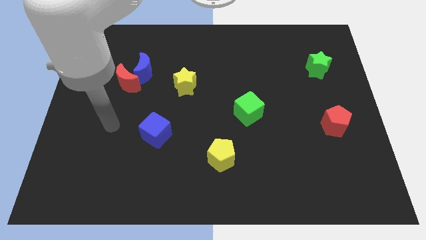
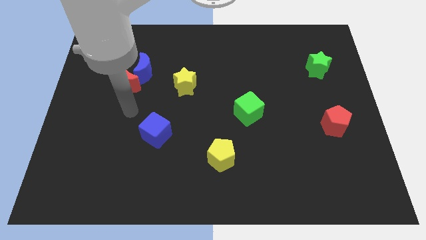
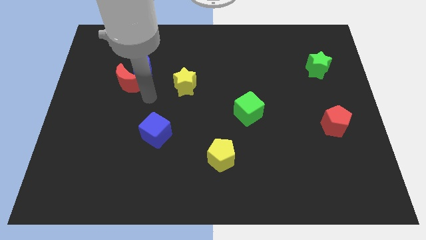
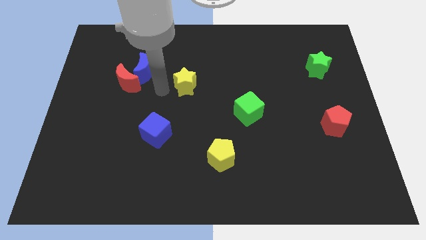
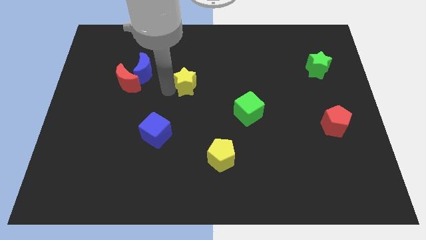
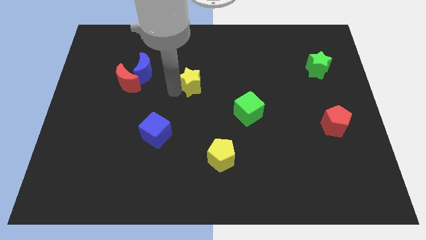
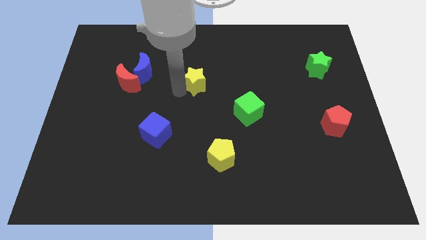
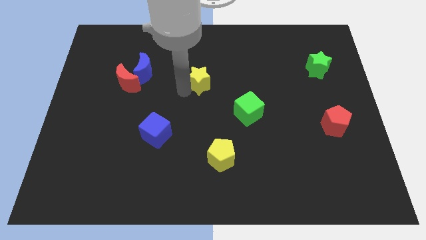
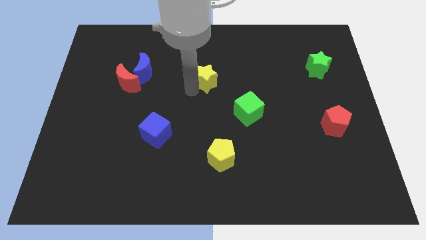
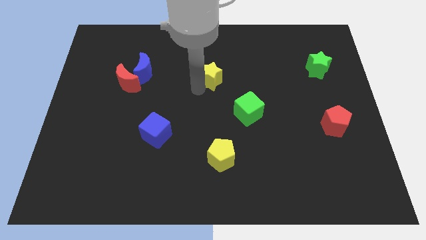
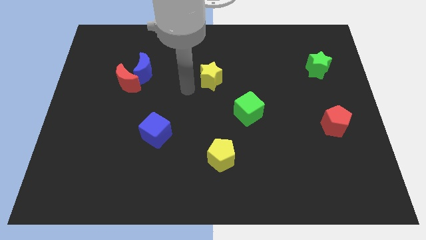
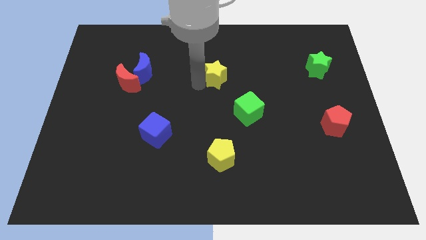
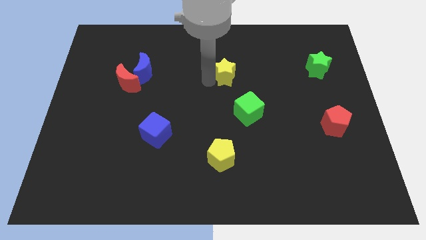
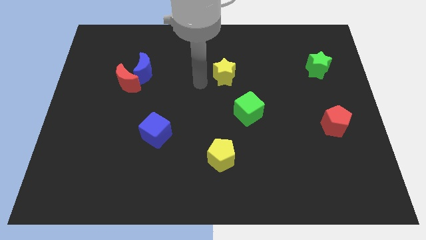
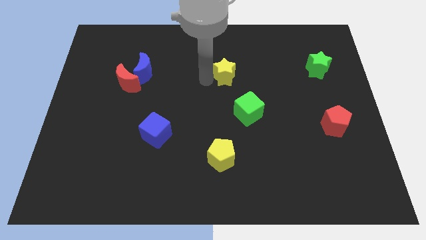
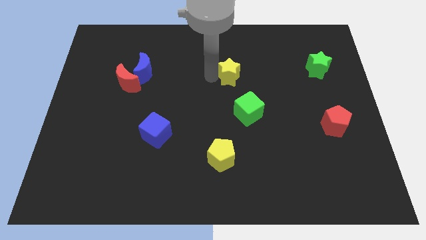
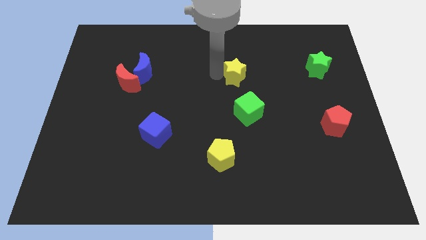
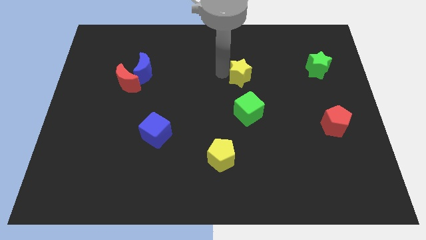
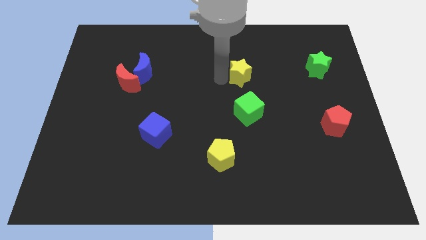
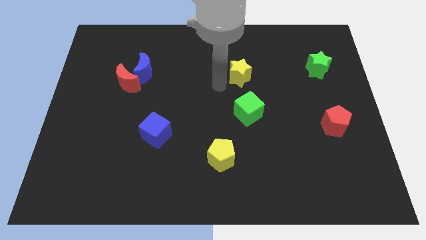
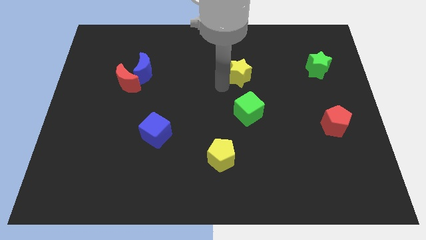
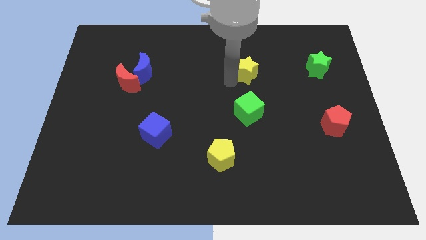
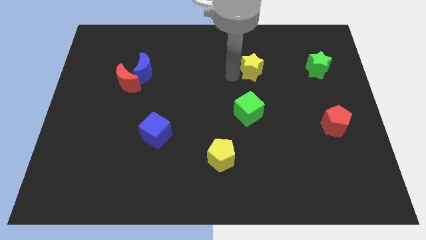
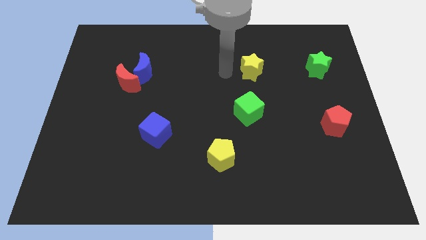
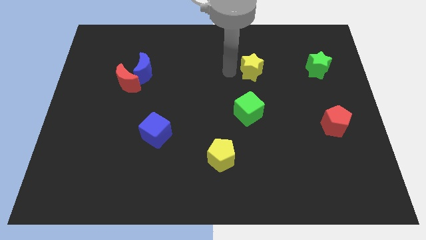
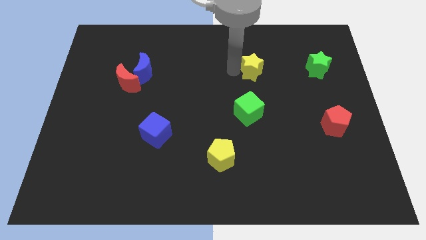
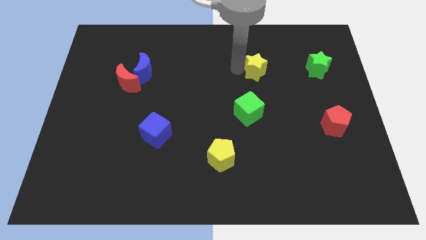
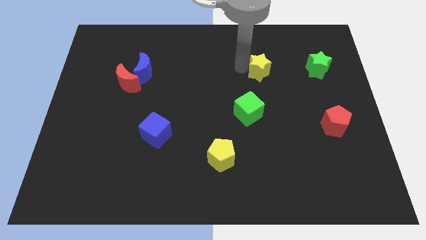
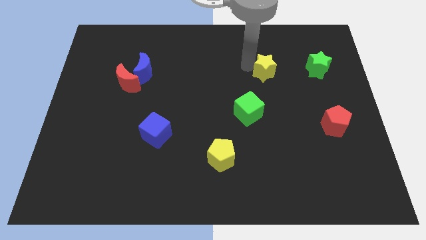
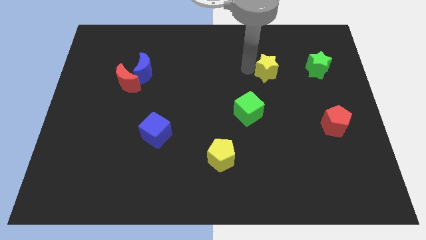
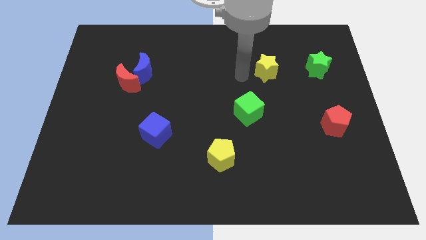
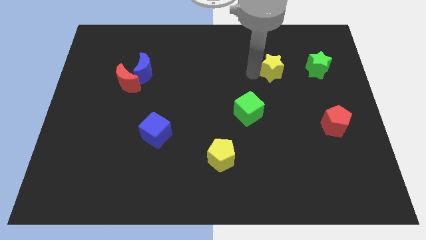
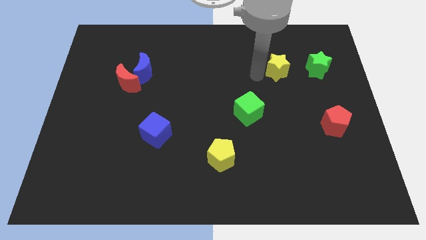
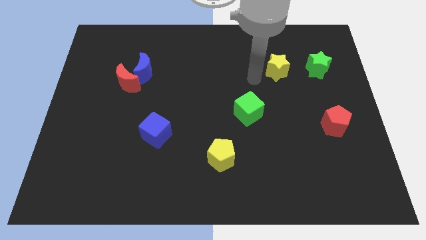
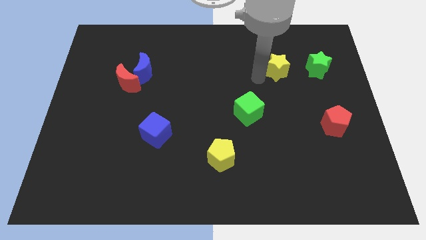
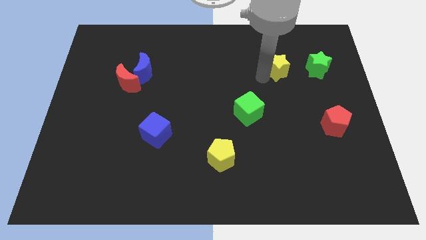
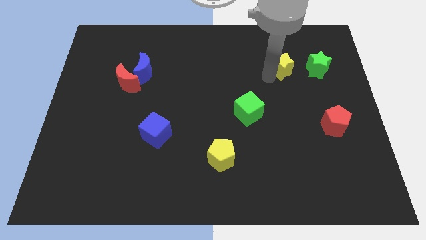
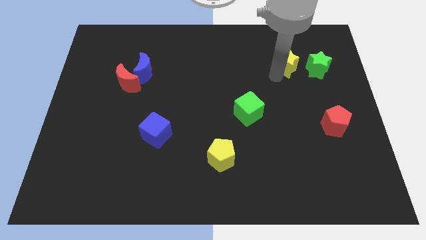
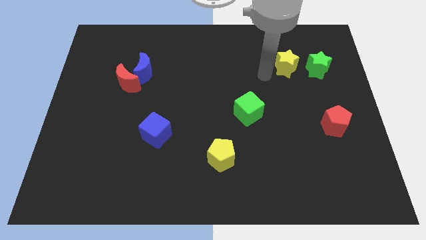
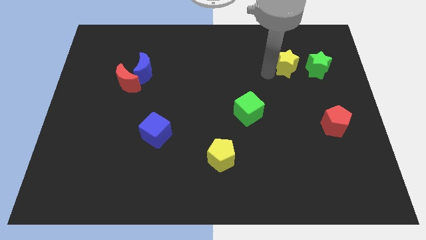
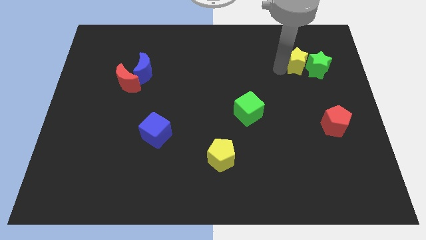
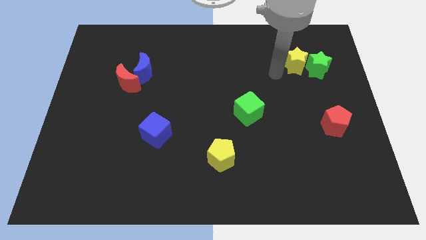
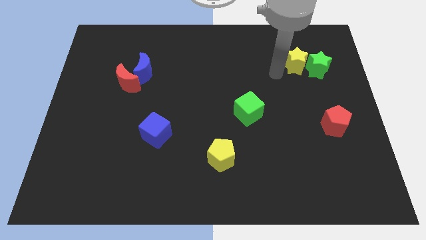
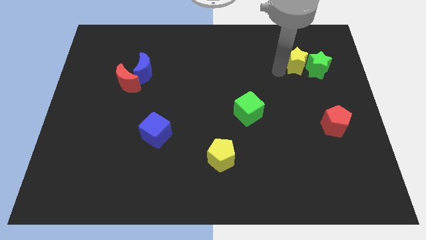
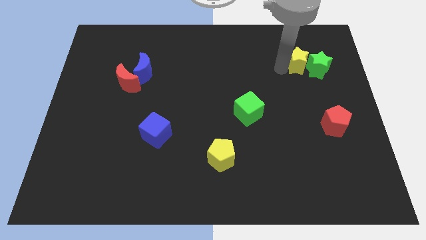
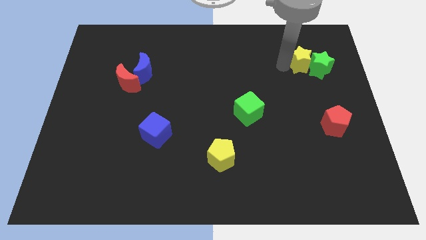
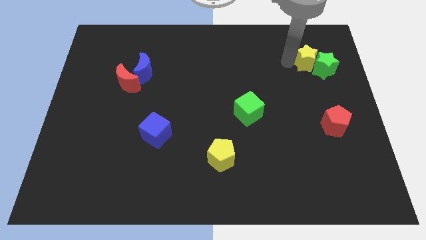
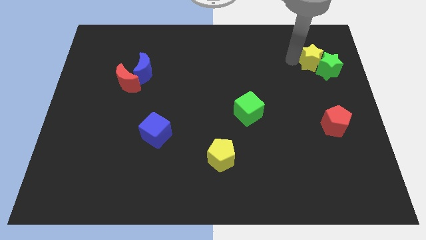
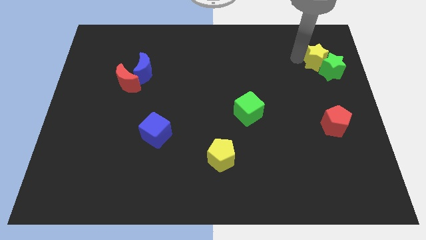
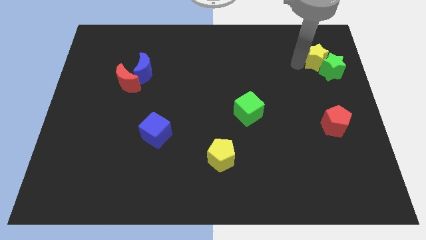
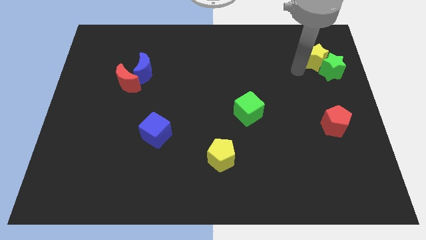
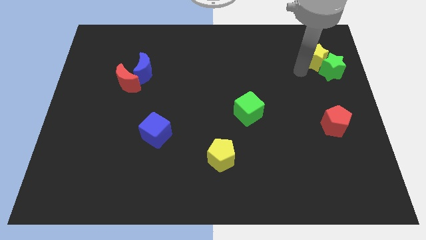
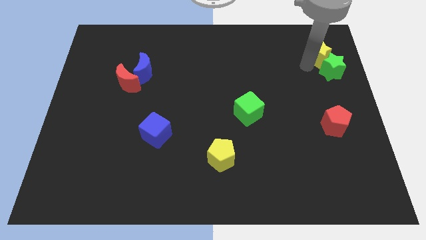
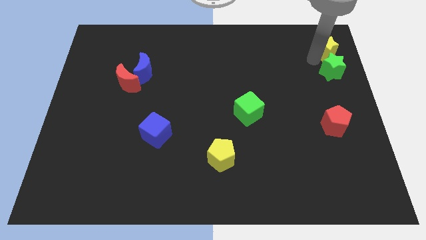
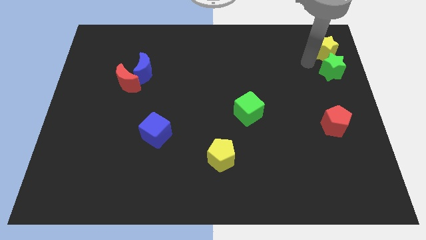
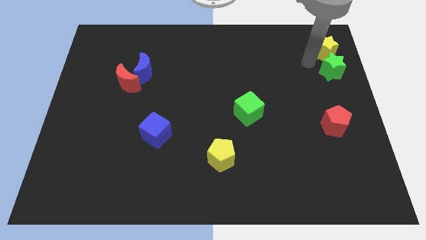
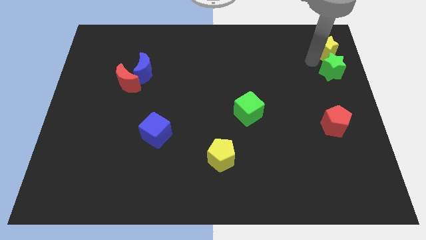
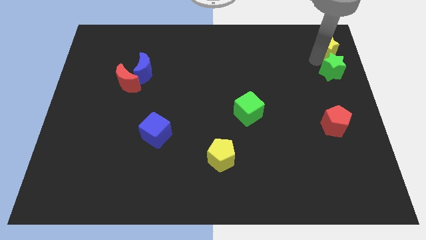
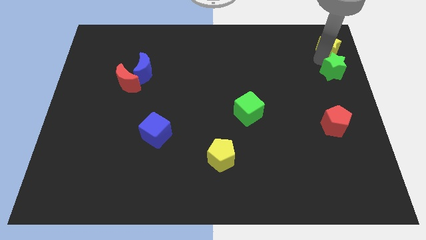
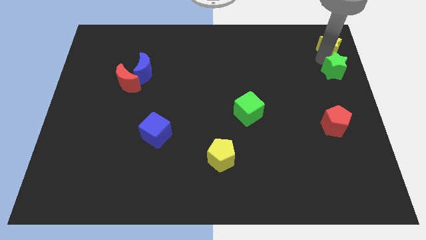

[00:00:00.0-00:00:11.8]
slide the yellow star to the top right of the board
